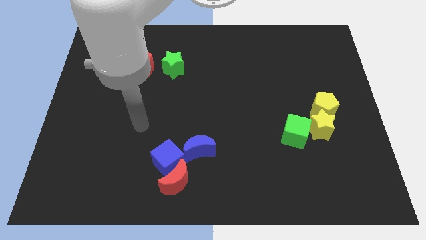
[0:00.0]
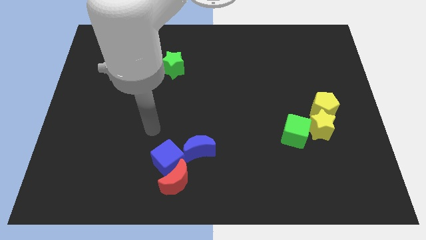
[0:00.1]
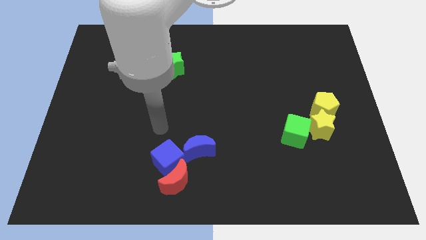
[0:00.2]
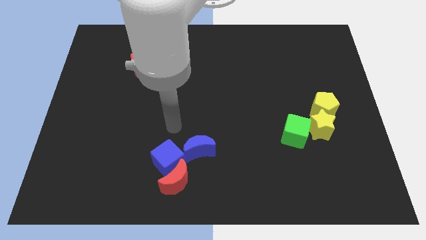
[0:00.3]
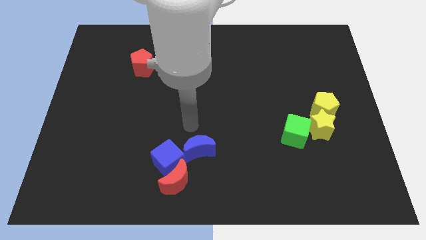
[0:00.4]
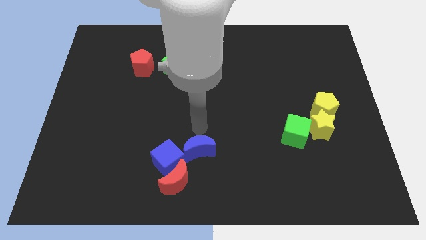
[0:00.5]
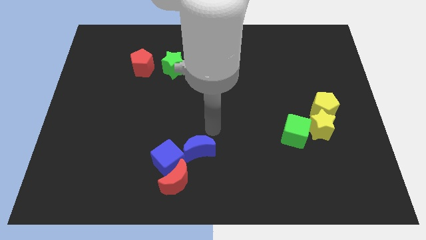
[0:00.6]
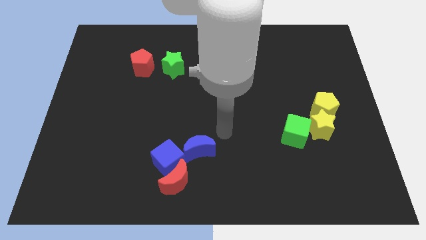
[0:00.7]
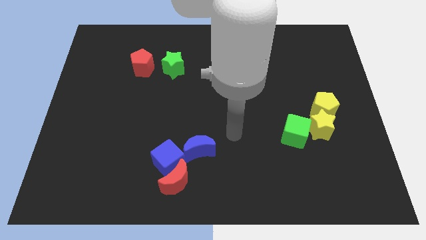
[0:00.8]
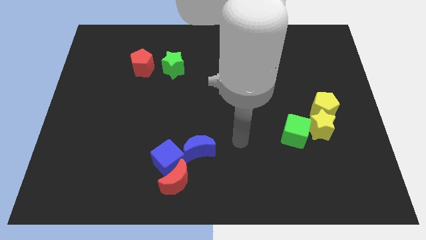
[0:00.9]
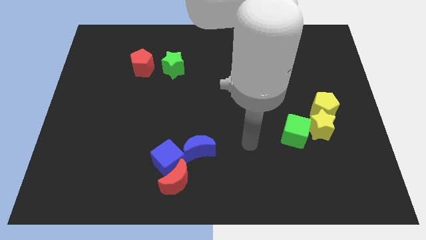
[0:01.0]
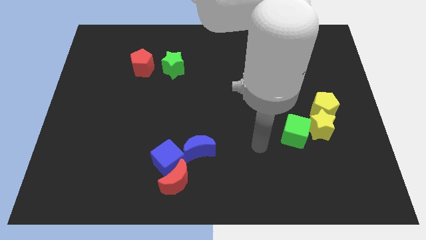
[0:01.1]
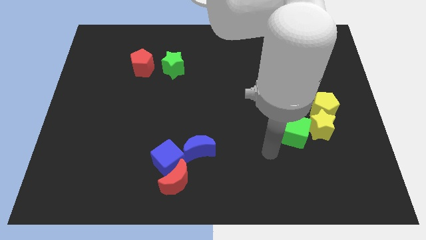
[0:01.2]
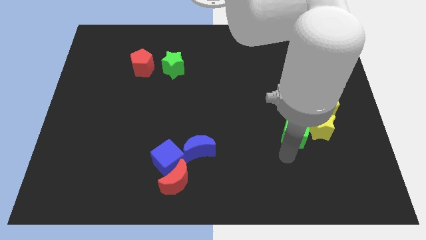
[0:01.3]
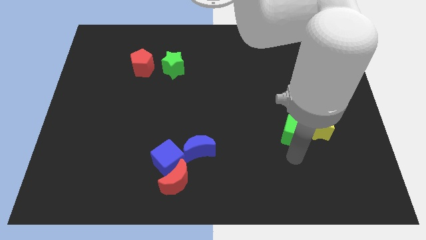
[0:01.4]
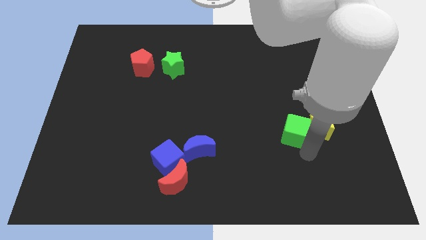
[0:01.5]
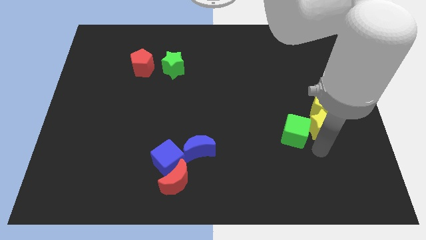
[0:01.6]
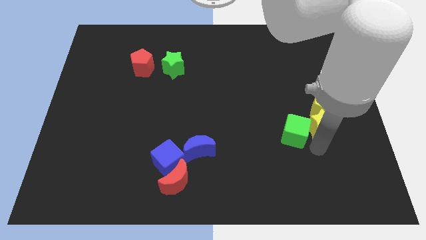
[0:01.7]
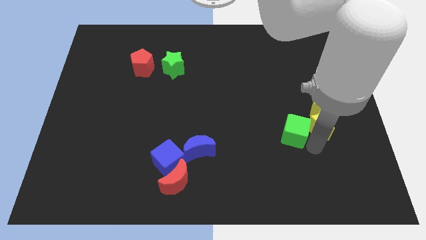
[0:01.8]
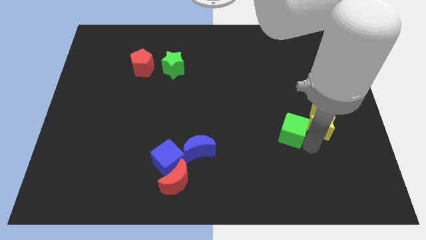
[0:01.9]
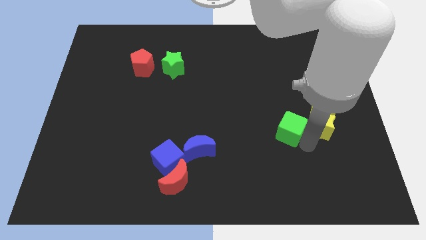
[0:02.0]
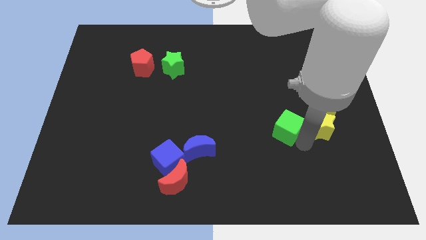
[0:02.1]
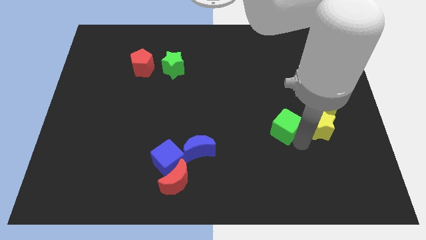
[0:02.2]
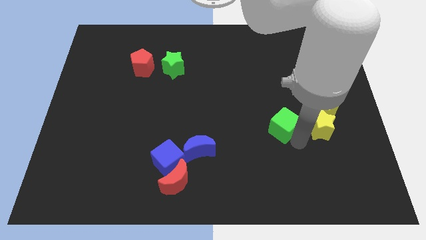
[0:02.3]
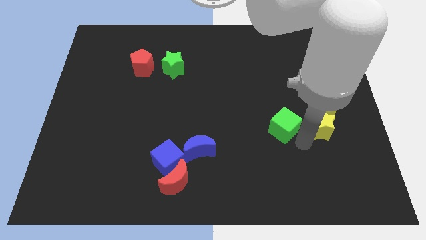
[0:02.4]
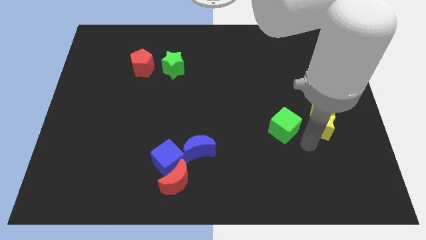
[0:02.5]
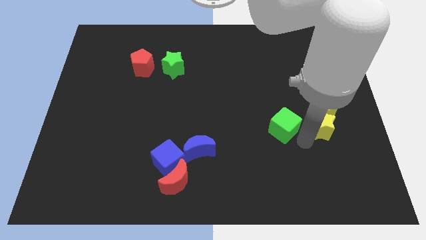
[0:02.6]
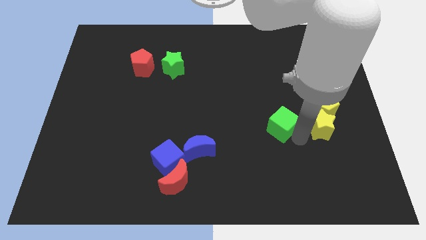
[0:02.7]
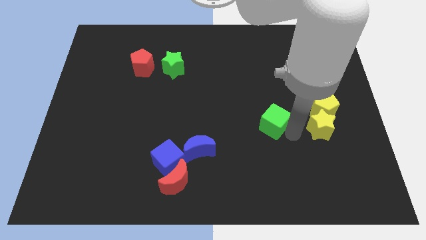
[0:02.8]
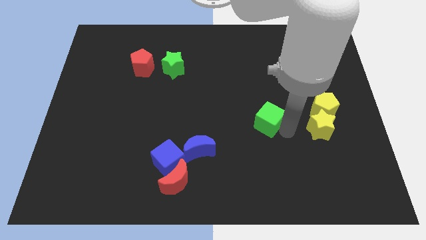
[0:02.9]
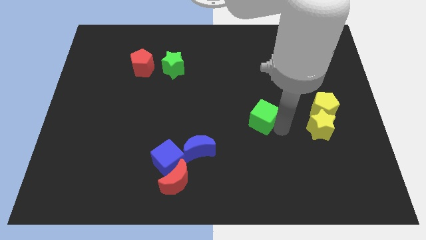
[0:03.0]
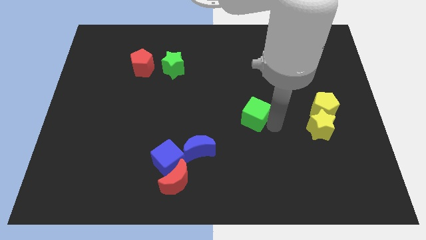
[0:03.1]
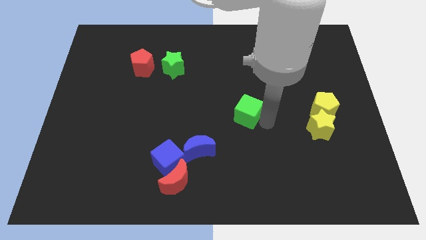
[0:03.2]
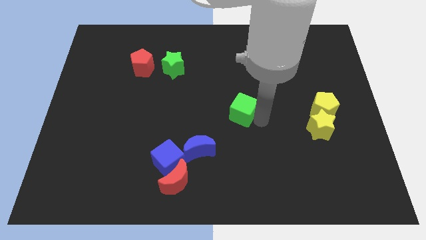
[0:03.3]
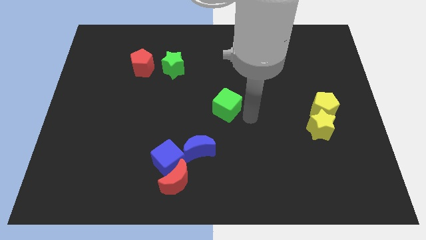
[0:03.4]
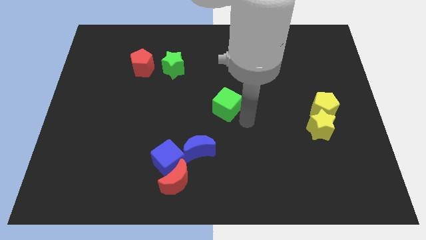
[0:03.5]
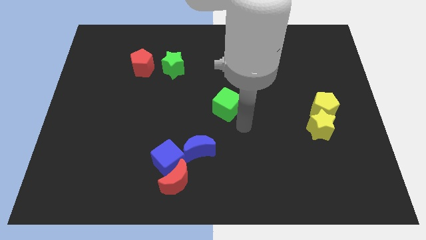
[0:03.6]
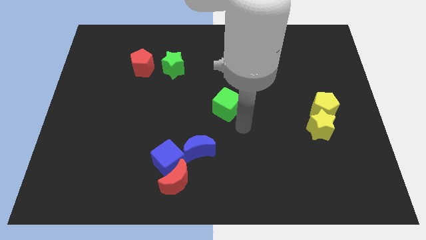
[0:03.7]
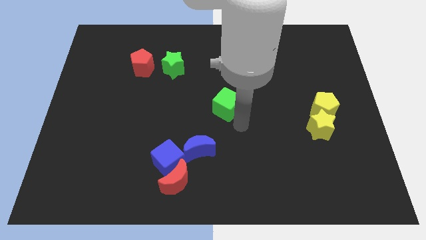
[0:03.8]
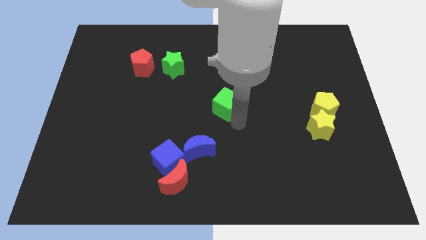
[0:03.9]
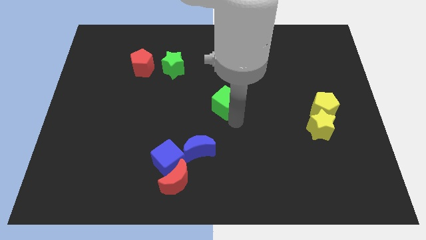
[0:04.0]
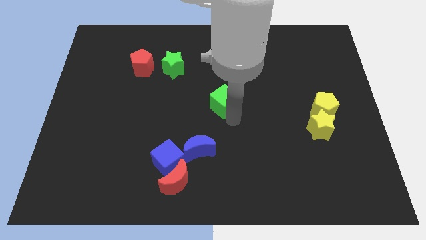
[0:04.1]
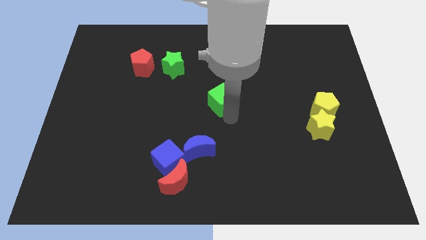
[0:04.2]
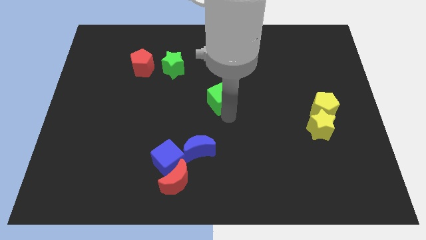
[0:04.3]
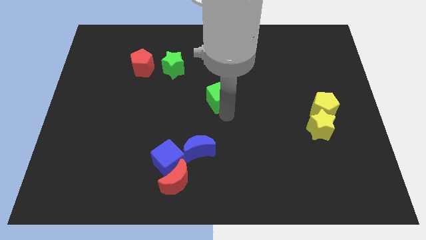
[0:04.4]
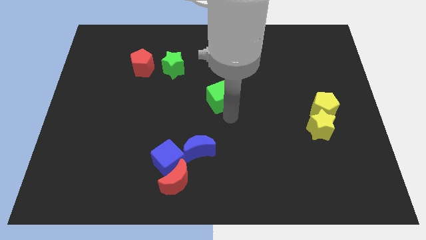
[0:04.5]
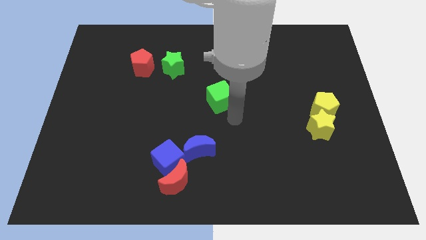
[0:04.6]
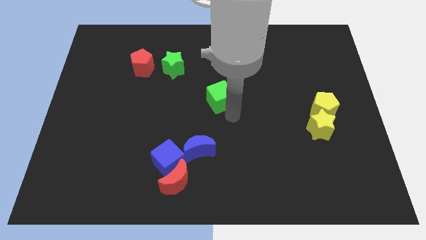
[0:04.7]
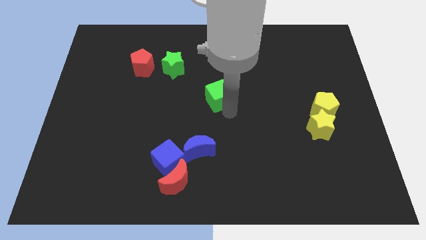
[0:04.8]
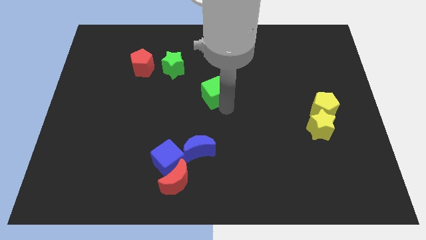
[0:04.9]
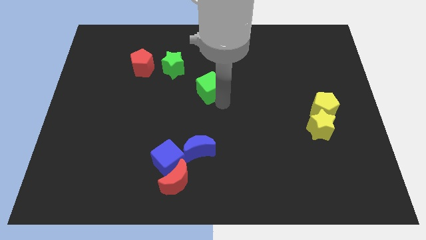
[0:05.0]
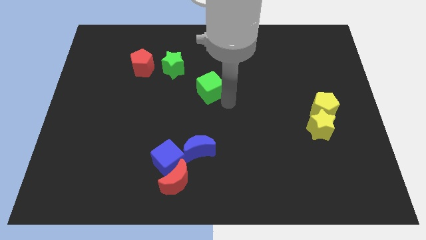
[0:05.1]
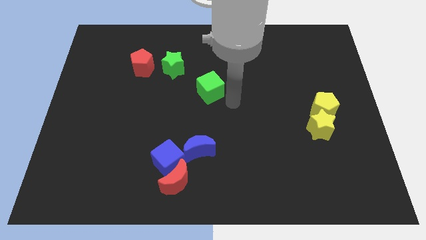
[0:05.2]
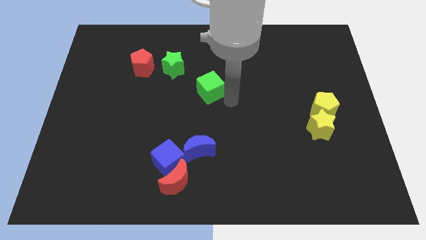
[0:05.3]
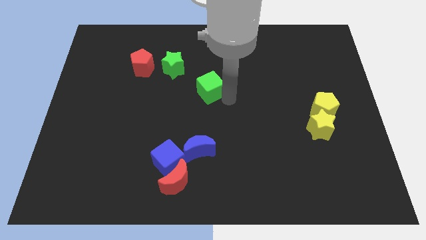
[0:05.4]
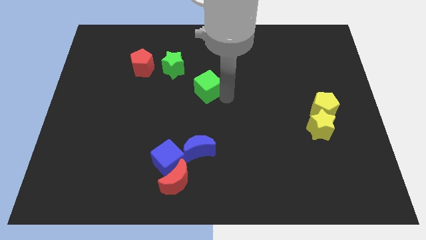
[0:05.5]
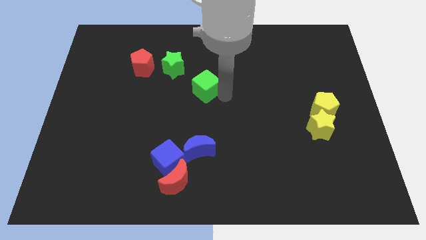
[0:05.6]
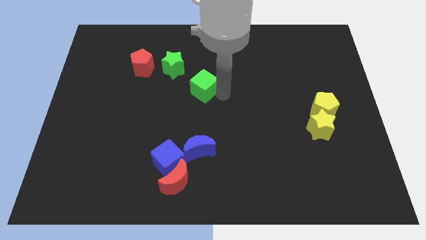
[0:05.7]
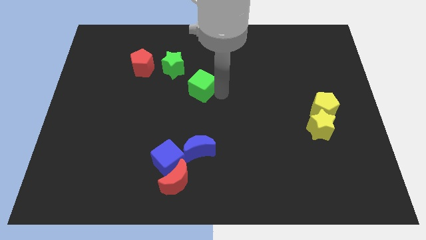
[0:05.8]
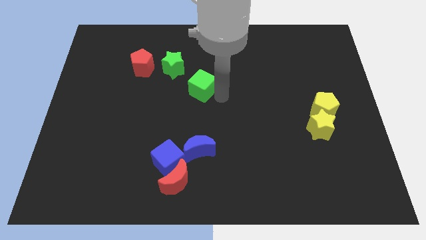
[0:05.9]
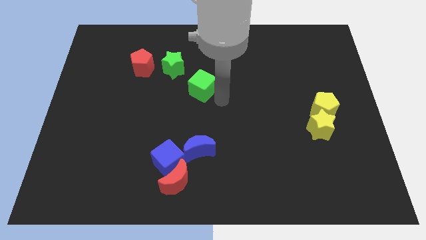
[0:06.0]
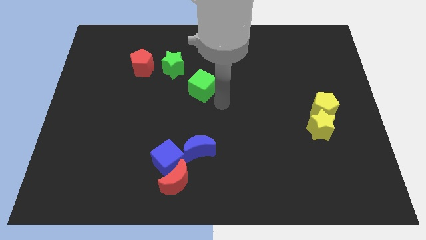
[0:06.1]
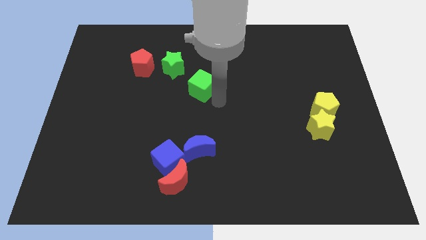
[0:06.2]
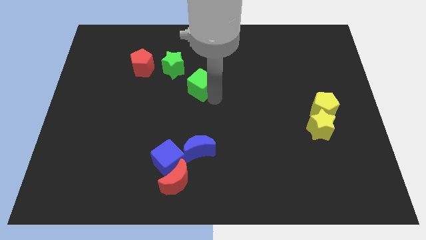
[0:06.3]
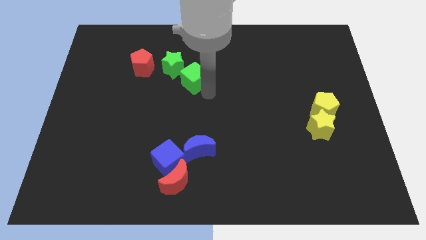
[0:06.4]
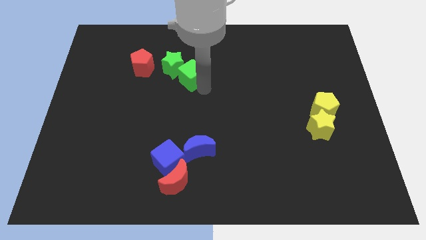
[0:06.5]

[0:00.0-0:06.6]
push the green cube next to the green star
